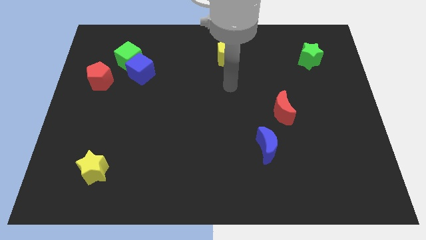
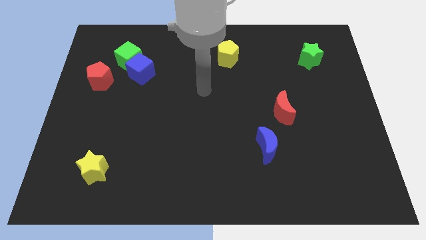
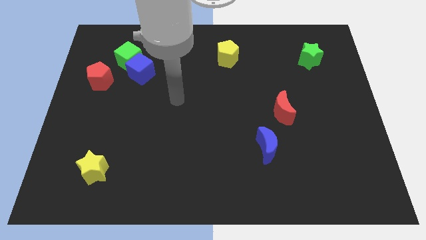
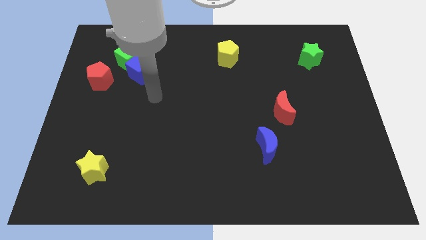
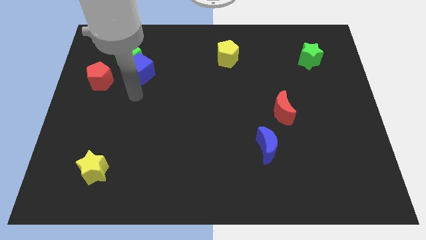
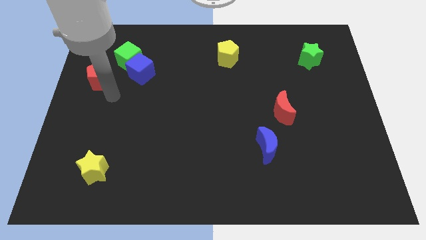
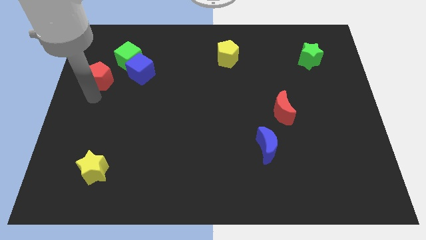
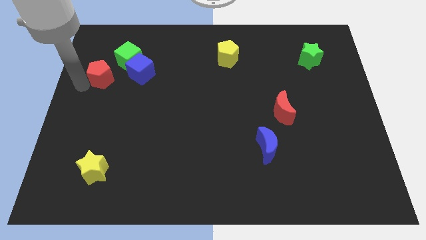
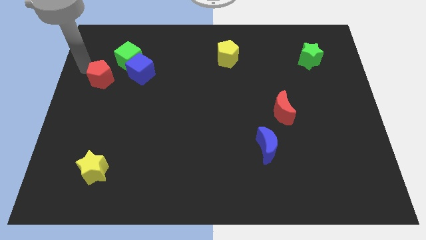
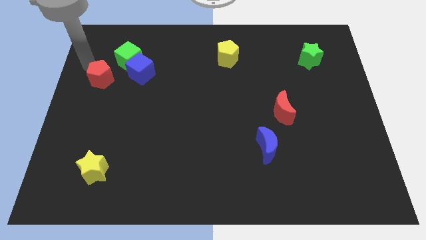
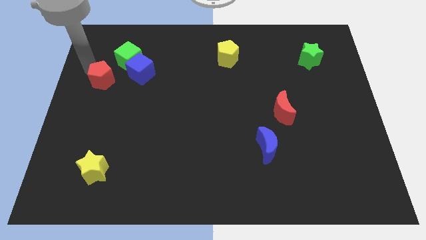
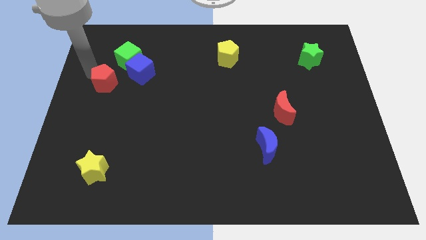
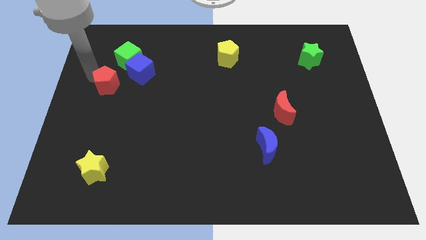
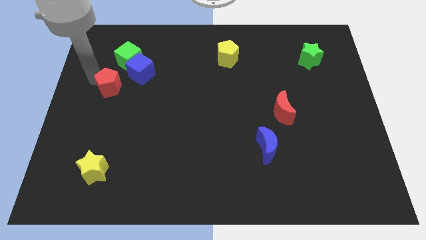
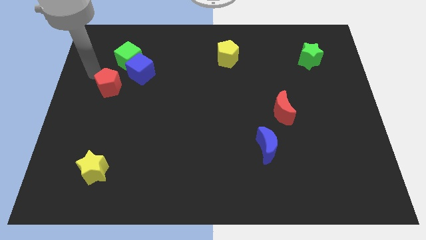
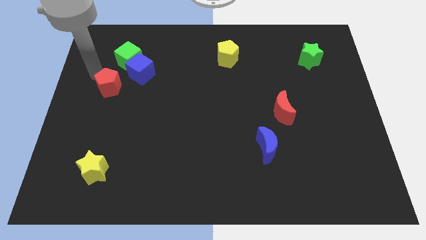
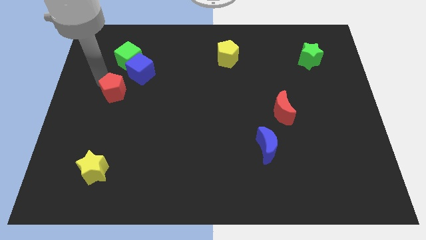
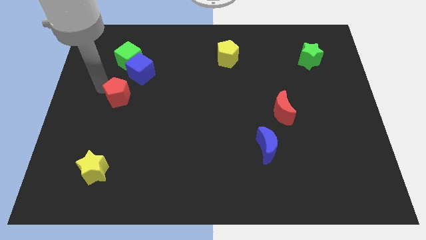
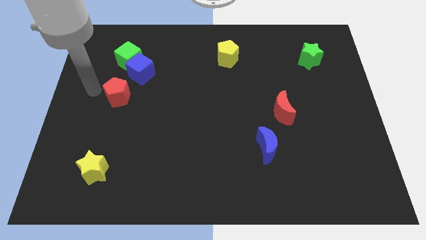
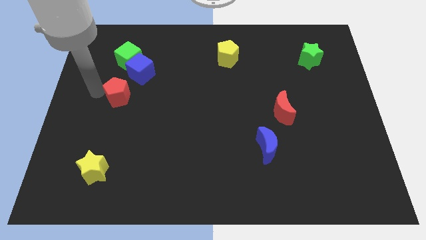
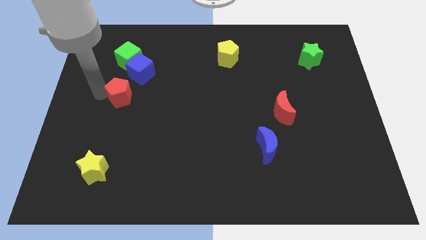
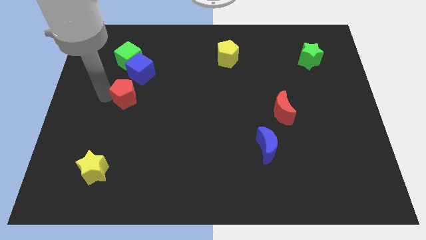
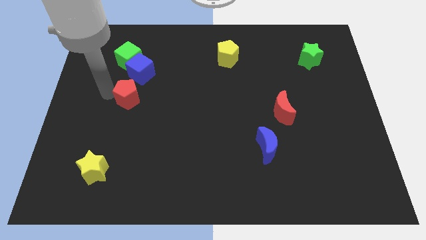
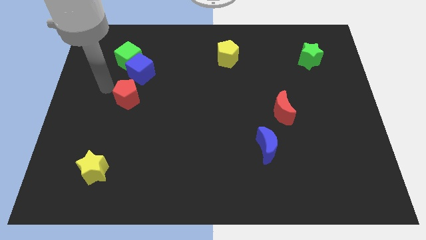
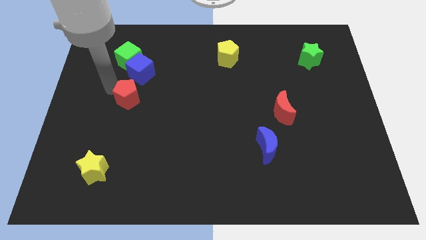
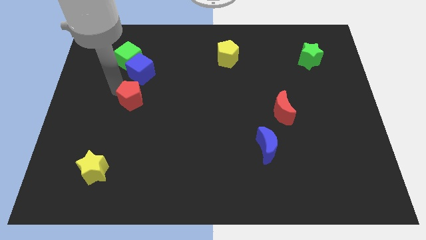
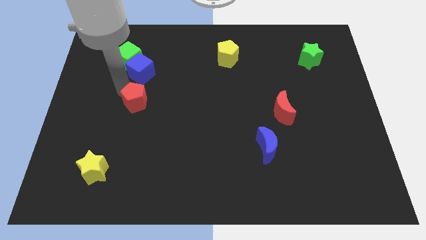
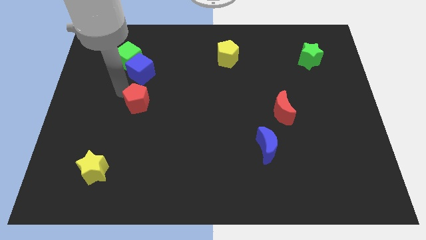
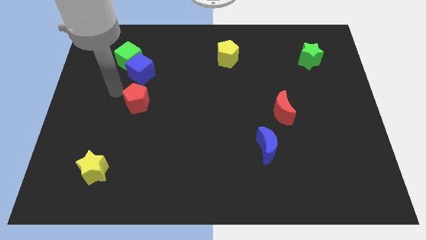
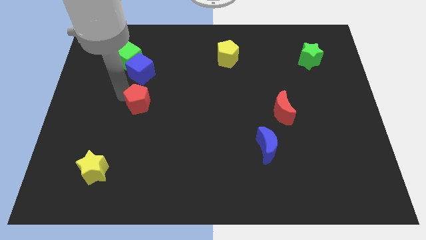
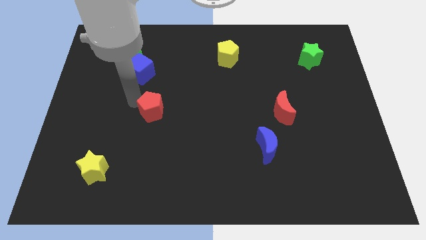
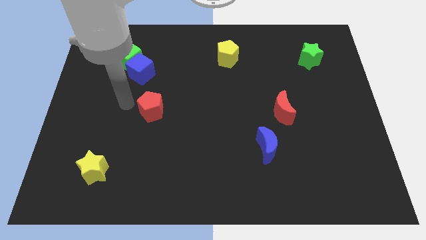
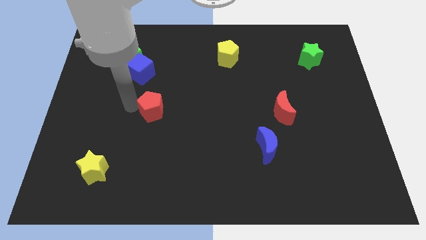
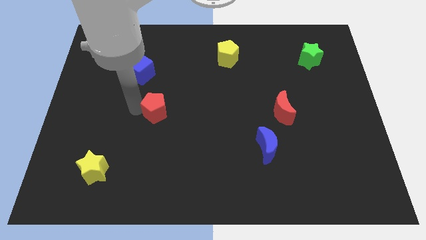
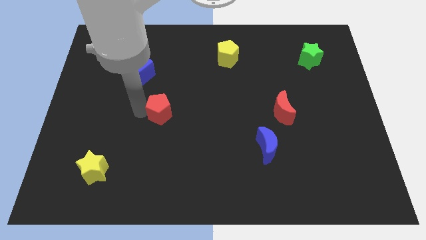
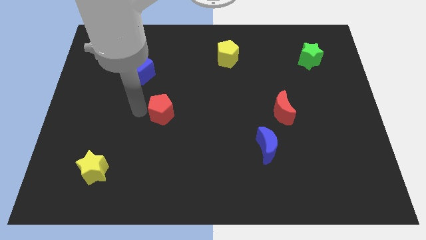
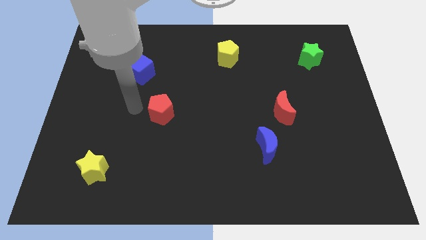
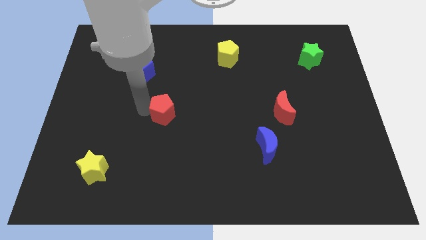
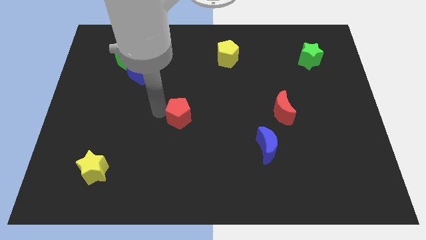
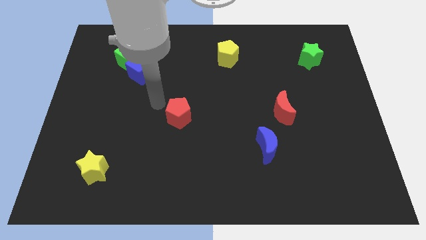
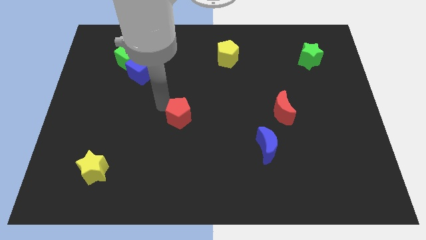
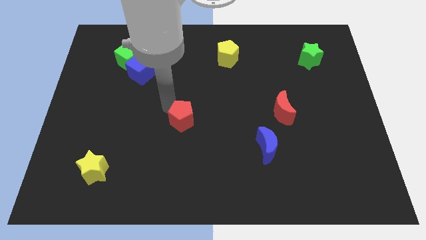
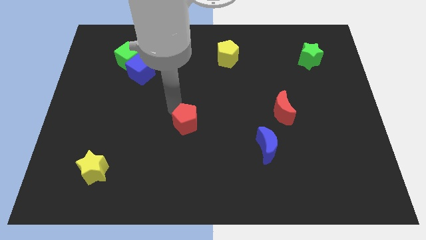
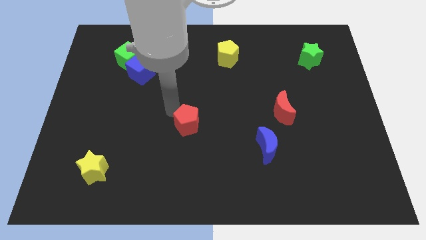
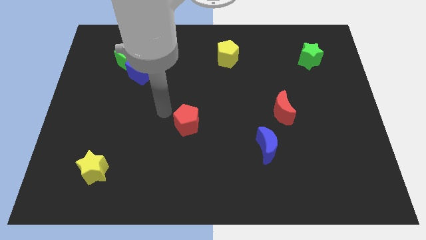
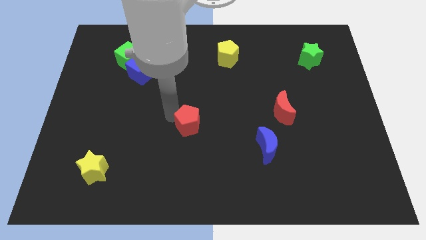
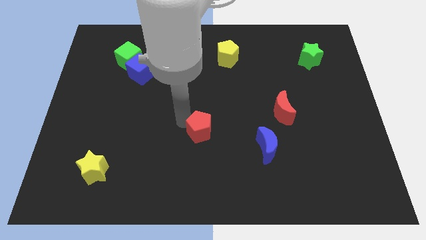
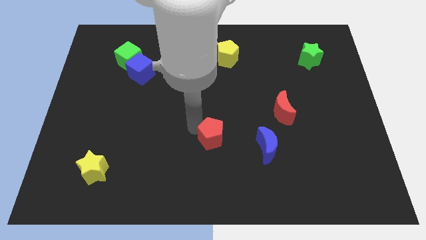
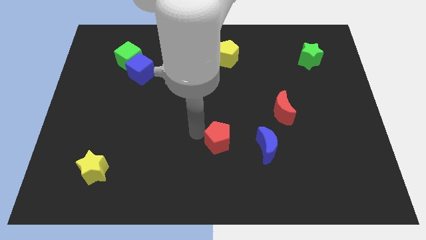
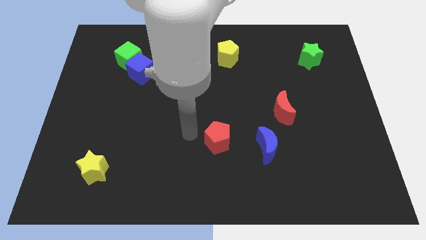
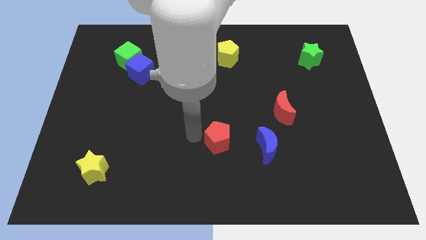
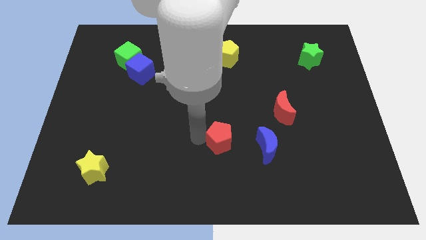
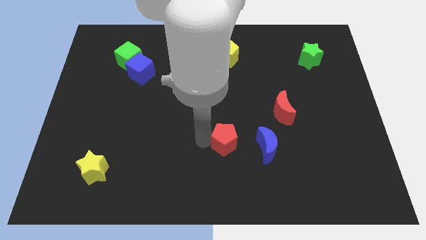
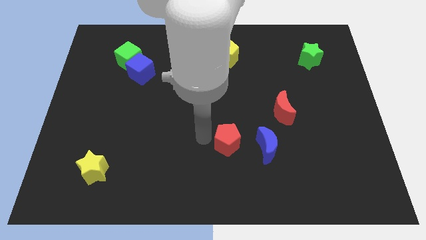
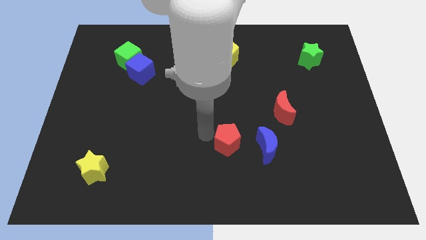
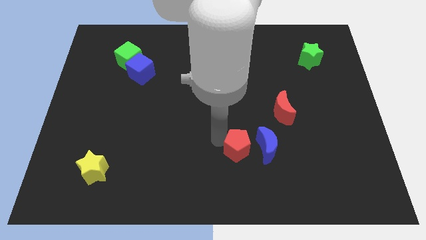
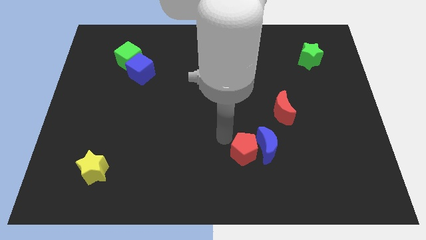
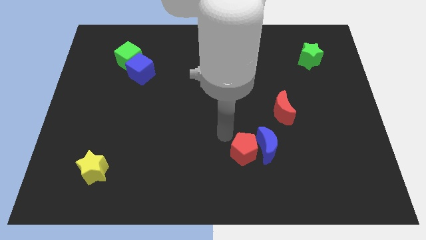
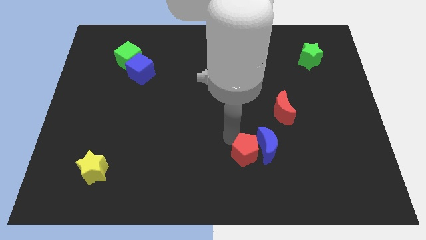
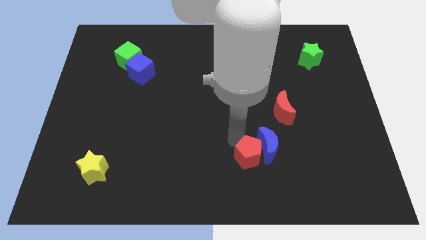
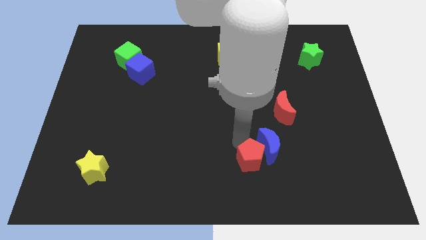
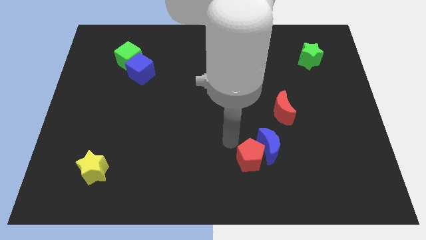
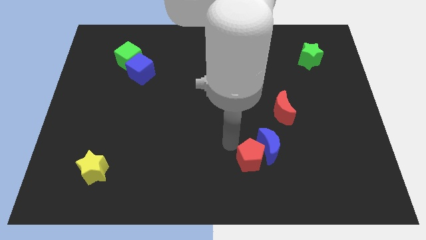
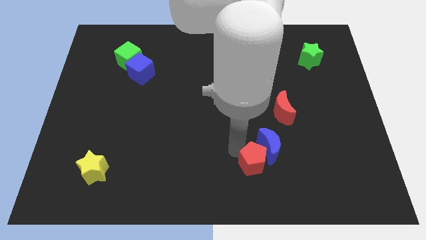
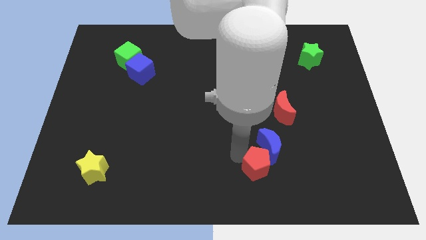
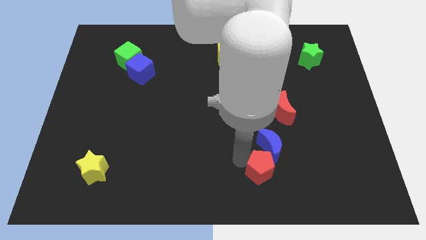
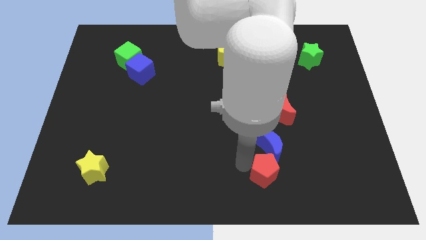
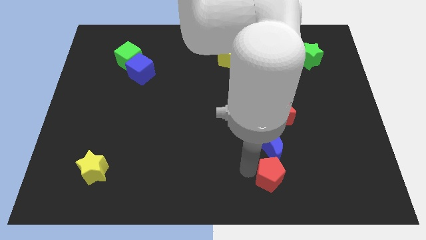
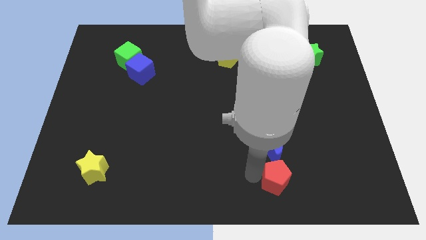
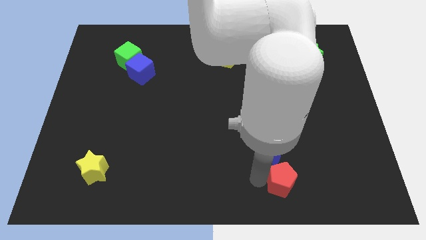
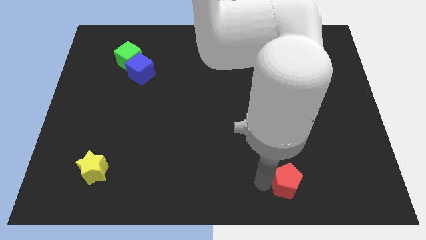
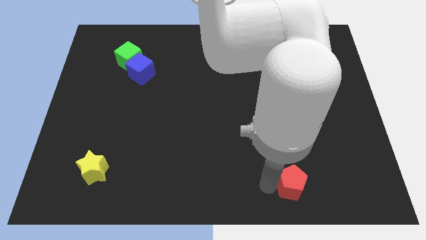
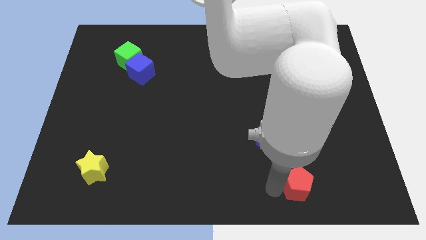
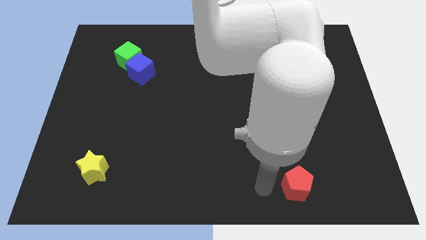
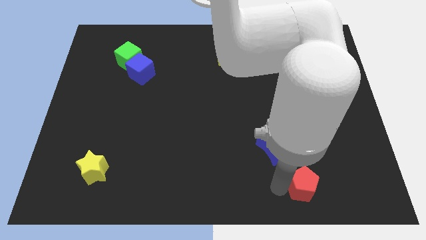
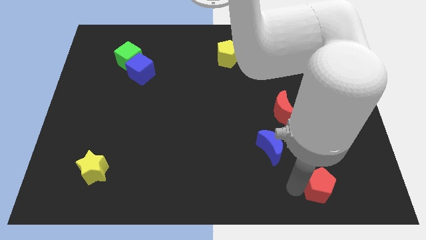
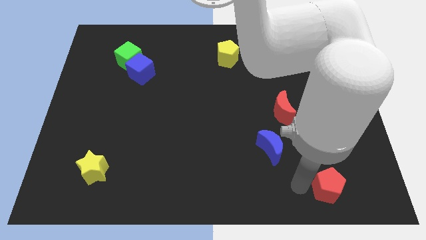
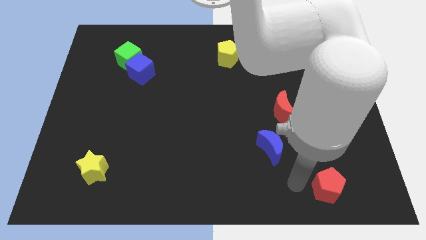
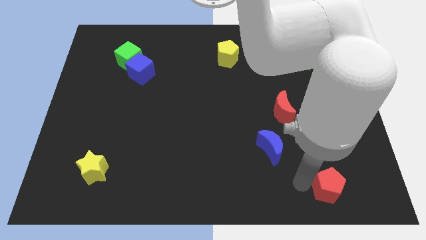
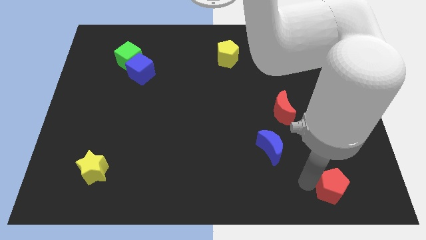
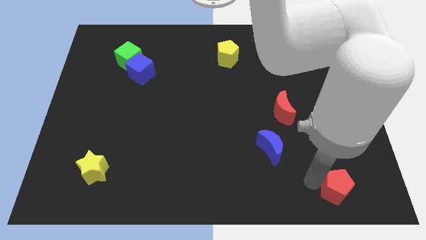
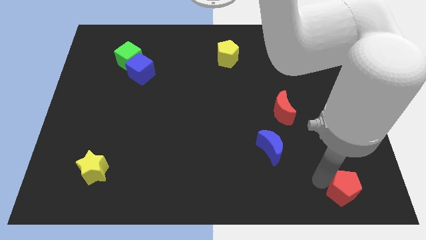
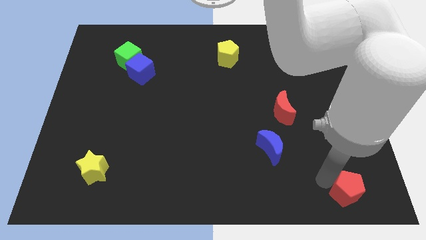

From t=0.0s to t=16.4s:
slide the red pentagon to the lower right corner
